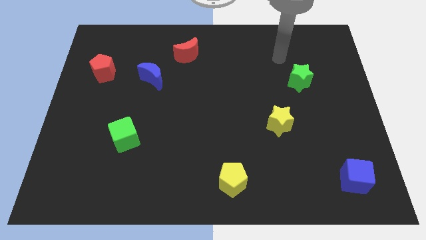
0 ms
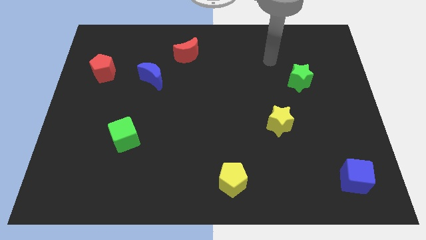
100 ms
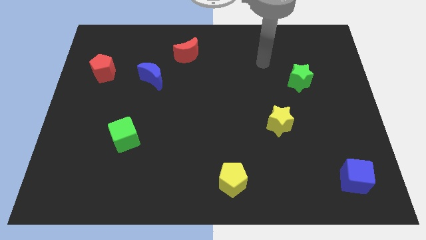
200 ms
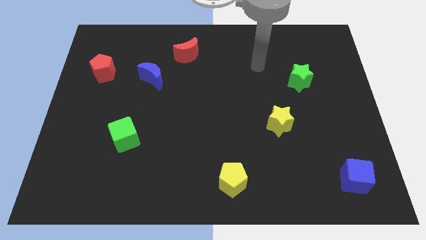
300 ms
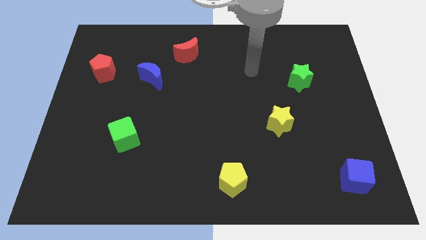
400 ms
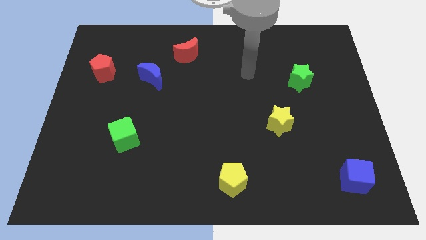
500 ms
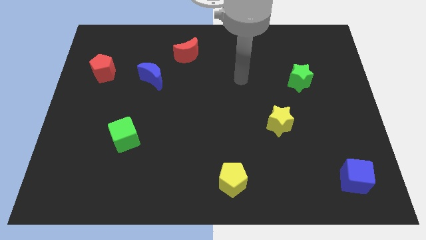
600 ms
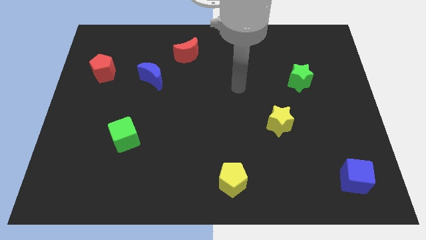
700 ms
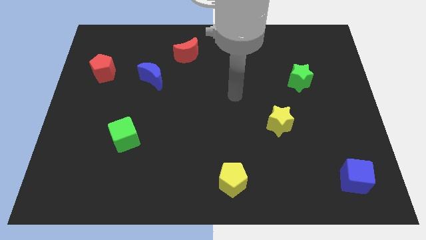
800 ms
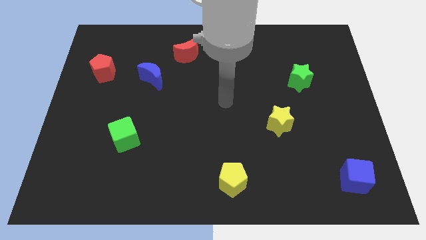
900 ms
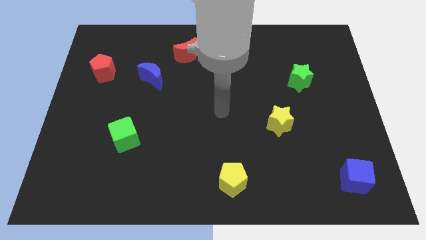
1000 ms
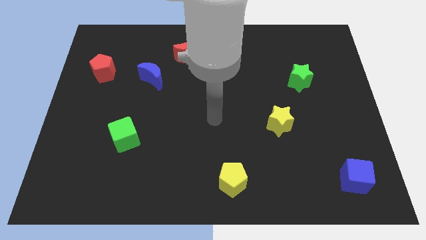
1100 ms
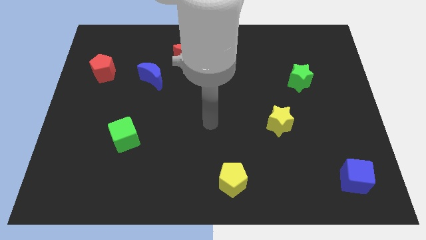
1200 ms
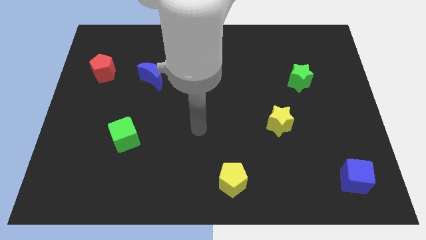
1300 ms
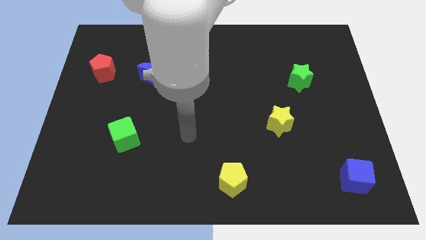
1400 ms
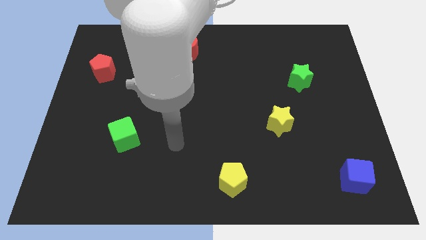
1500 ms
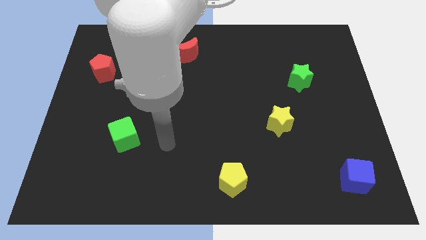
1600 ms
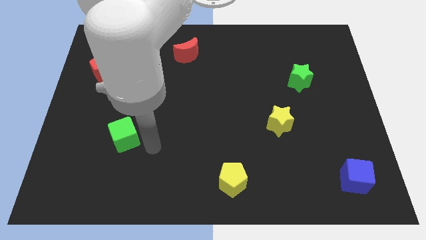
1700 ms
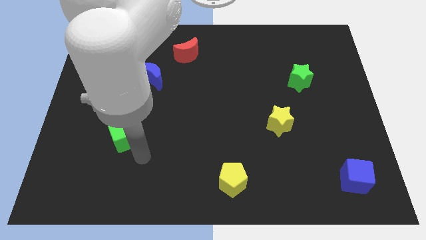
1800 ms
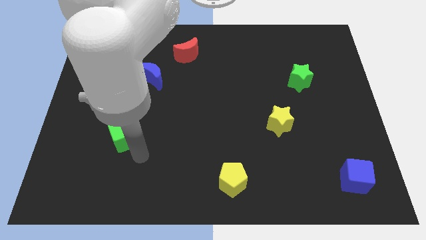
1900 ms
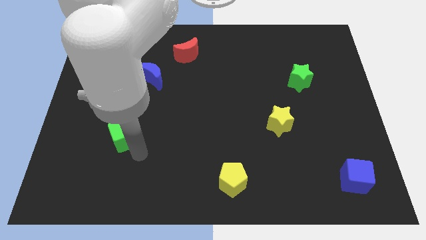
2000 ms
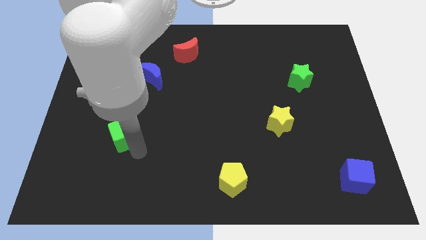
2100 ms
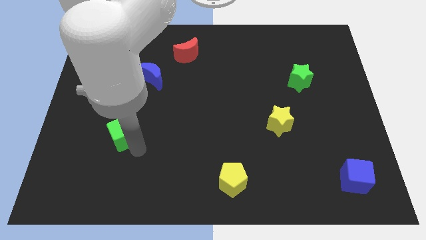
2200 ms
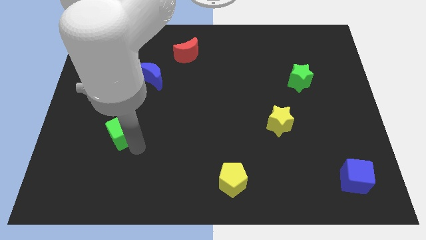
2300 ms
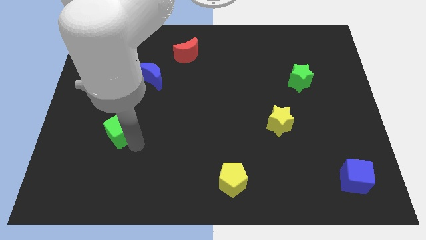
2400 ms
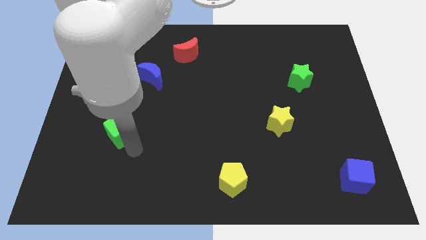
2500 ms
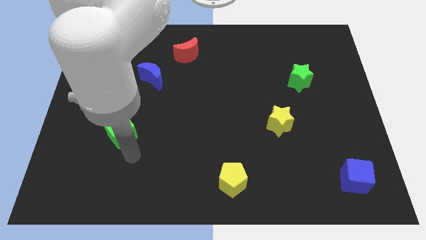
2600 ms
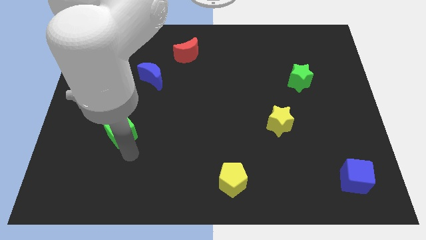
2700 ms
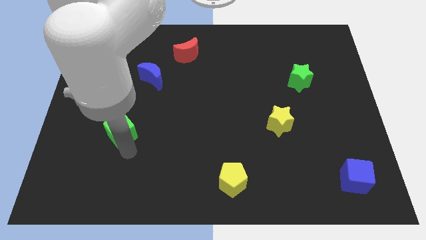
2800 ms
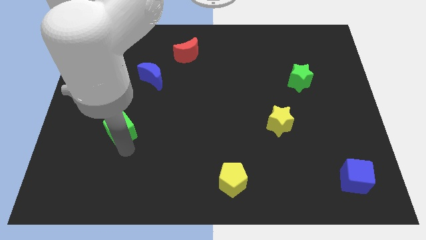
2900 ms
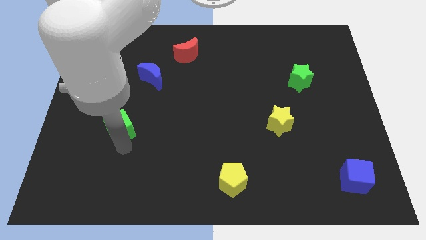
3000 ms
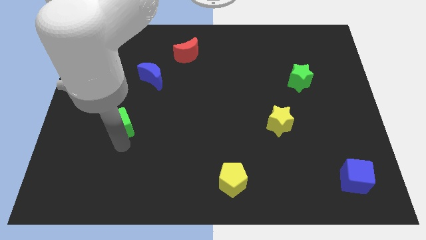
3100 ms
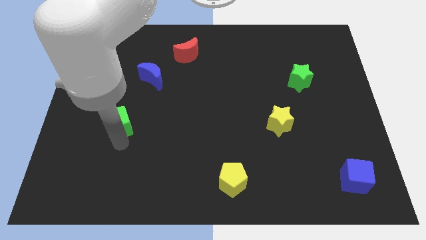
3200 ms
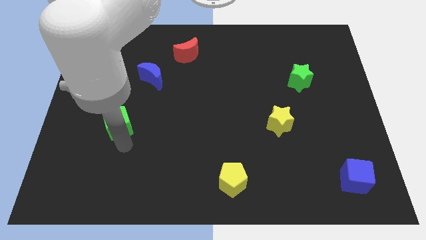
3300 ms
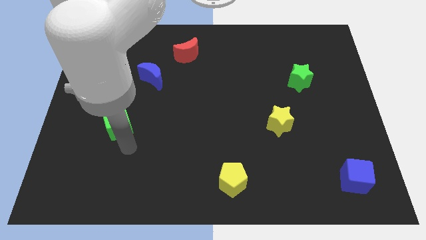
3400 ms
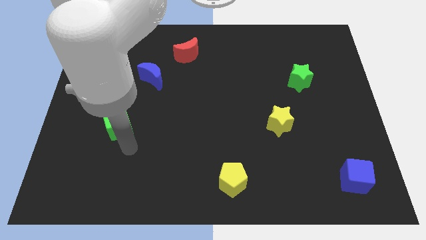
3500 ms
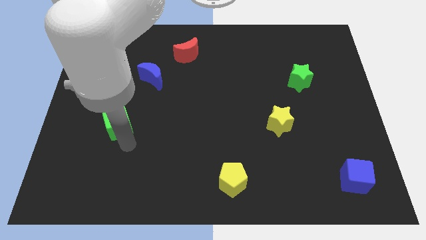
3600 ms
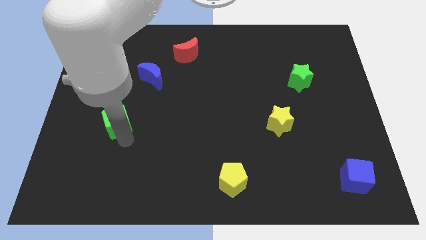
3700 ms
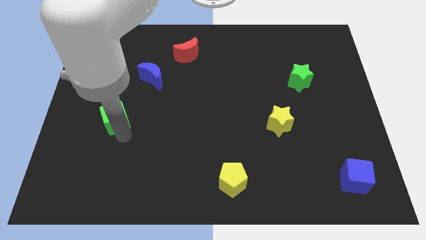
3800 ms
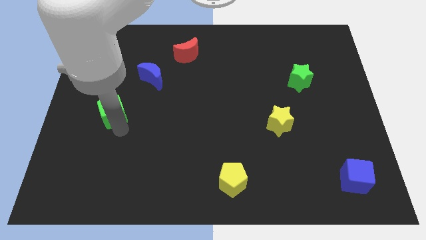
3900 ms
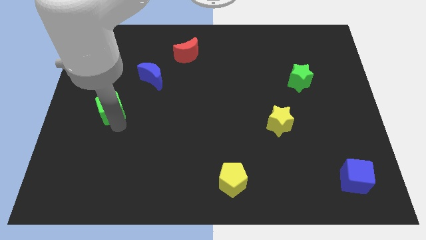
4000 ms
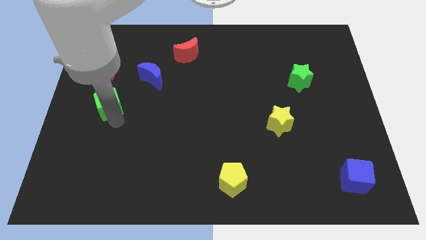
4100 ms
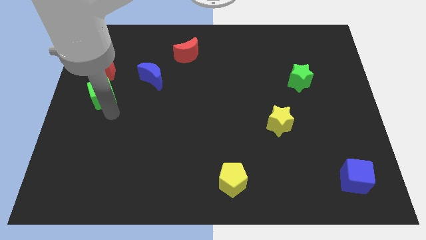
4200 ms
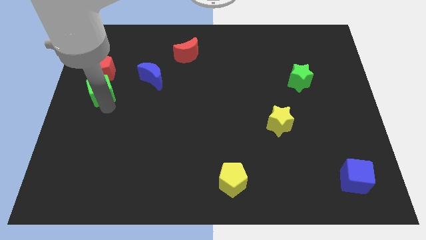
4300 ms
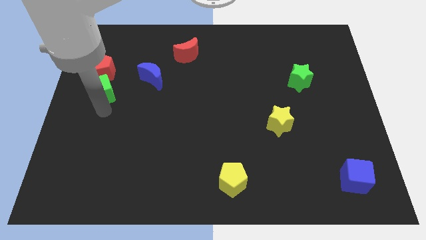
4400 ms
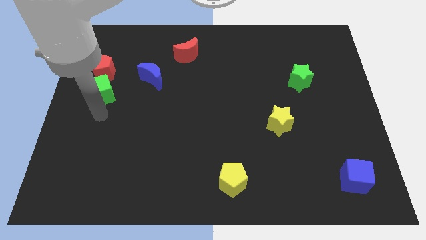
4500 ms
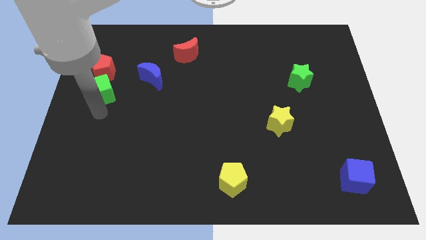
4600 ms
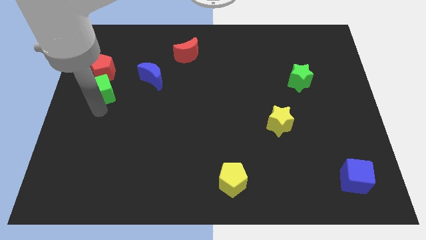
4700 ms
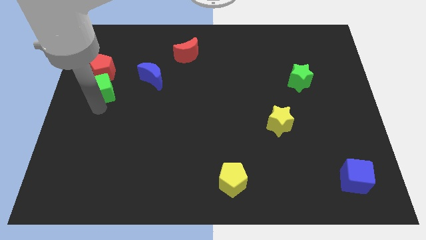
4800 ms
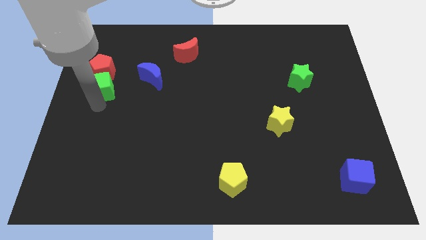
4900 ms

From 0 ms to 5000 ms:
push the green cube next to the red pentagon

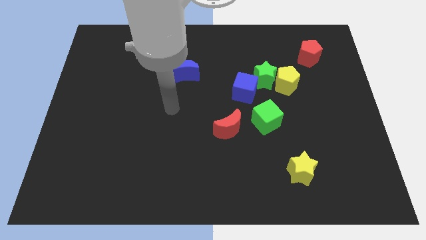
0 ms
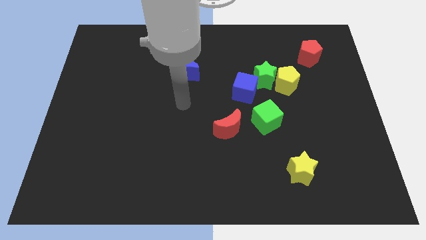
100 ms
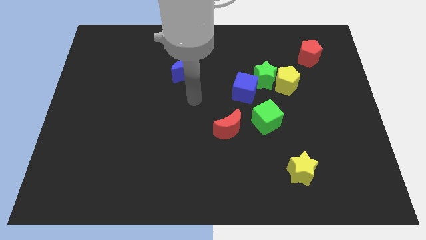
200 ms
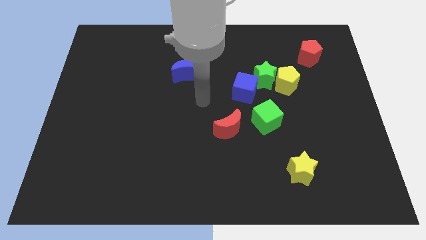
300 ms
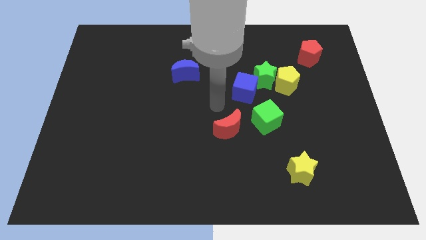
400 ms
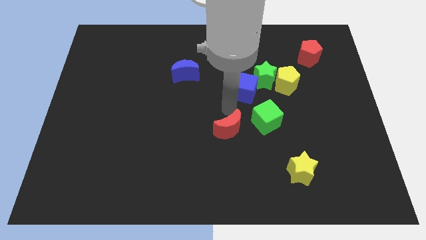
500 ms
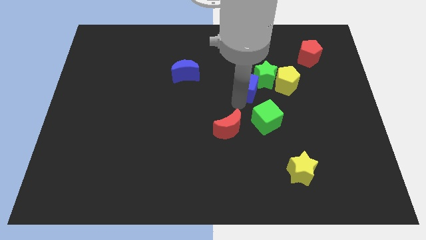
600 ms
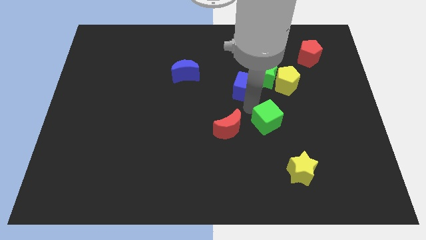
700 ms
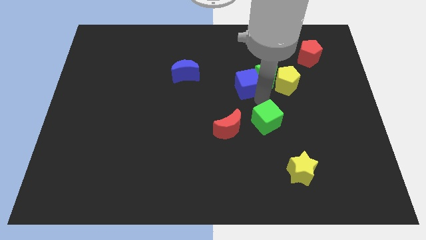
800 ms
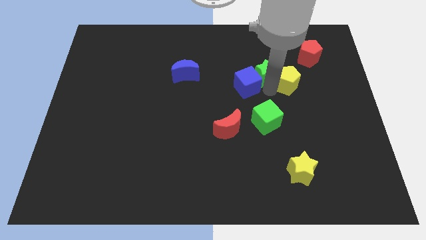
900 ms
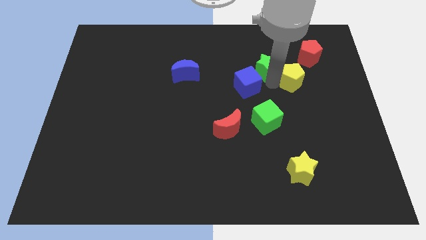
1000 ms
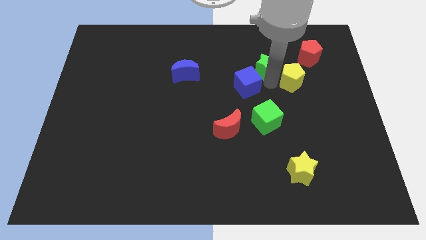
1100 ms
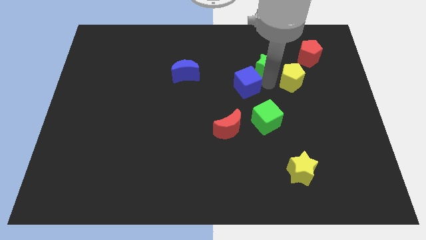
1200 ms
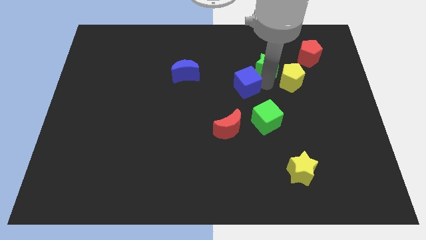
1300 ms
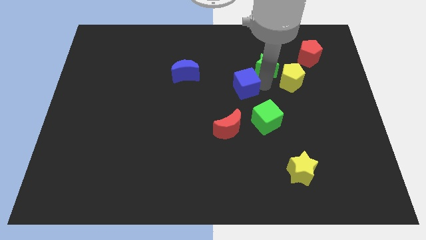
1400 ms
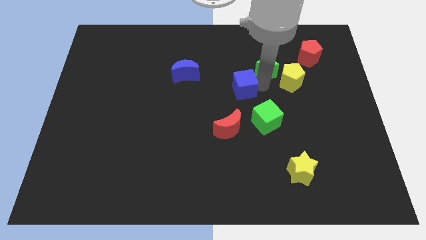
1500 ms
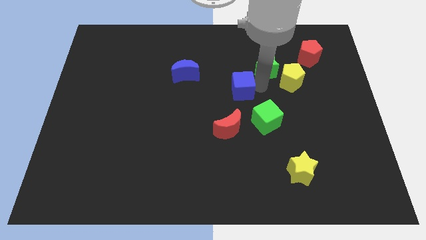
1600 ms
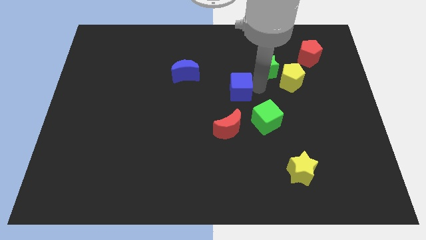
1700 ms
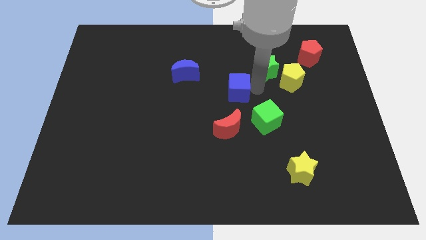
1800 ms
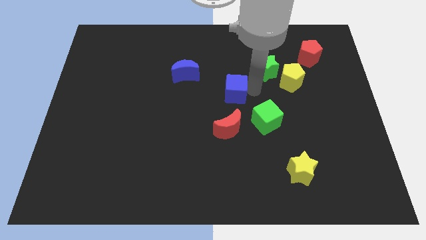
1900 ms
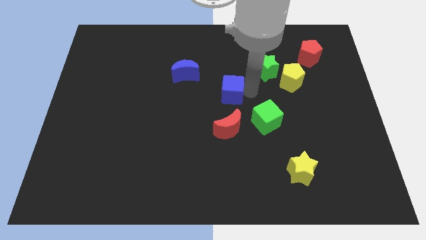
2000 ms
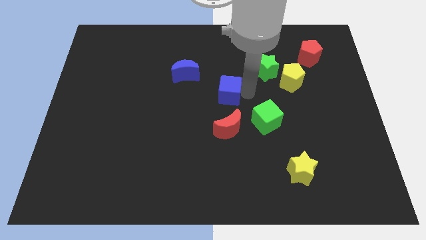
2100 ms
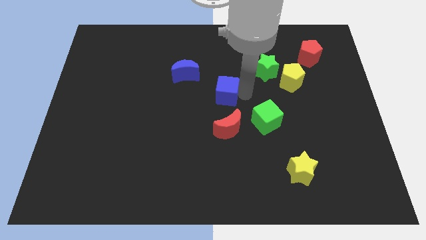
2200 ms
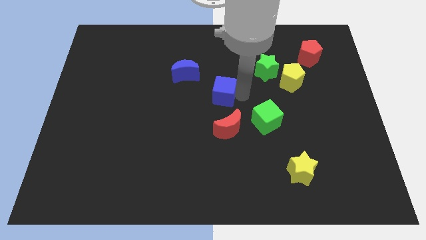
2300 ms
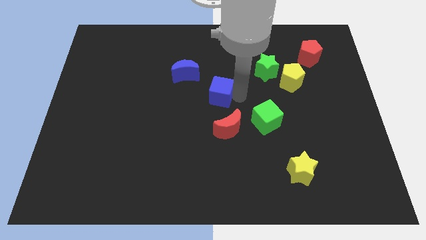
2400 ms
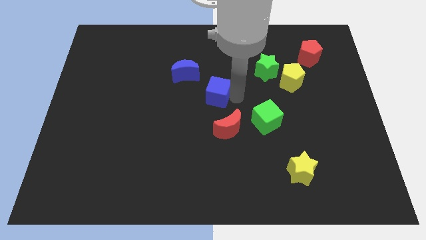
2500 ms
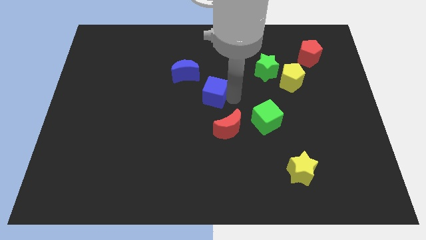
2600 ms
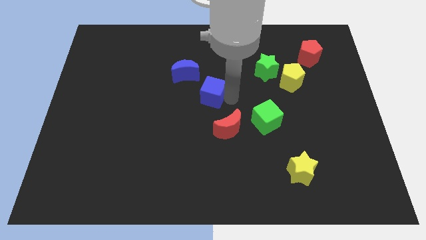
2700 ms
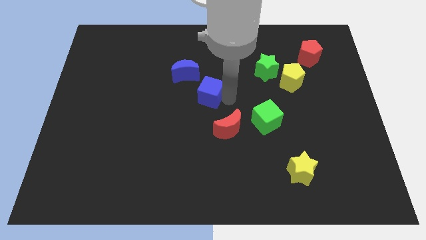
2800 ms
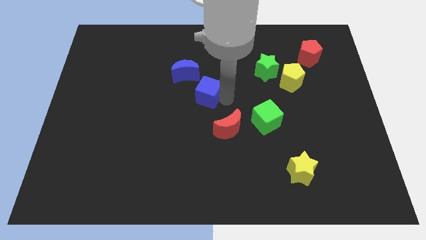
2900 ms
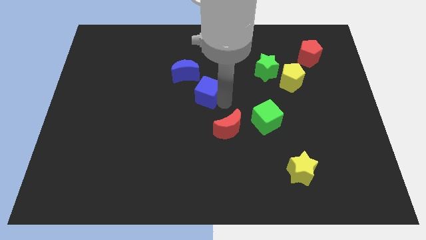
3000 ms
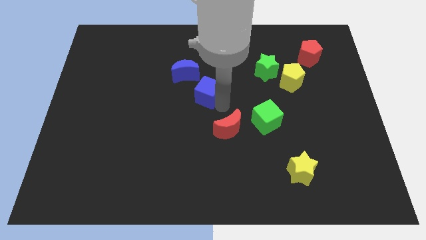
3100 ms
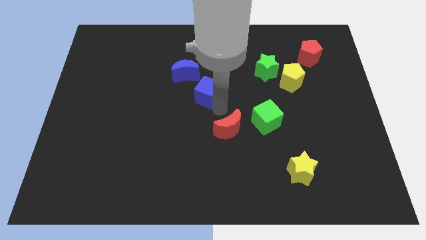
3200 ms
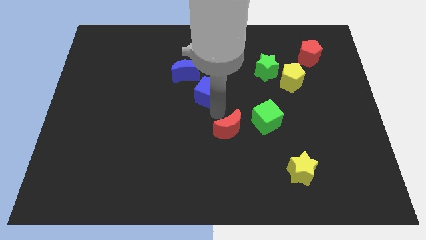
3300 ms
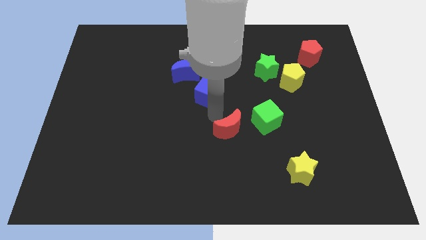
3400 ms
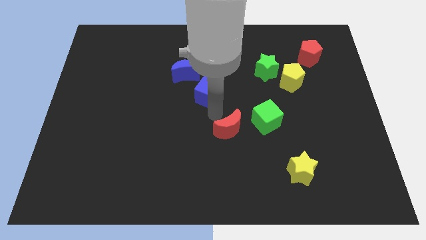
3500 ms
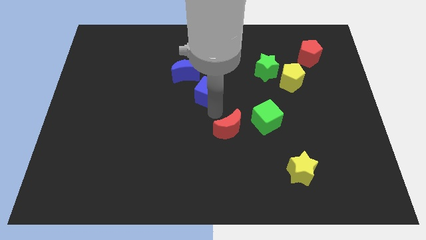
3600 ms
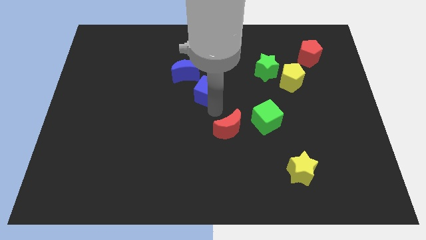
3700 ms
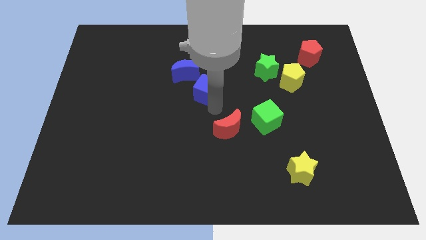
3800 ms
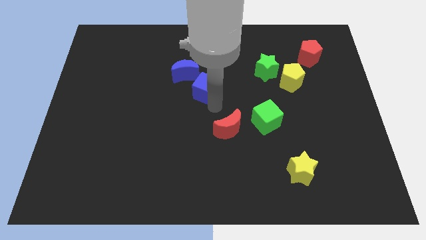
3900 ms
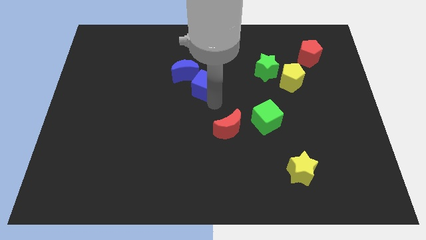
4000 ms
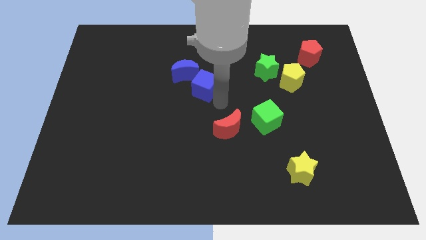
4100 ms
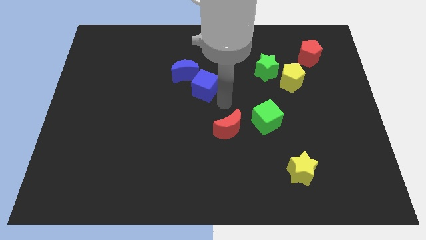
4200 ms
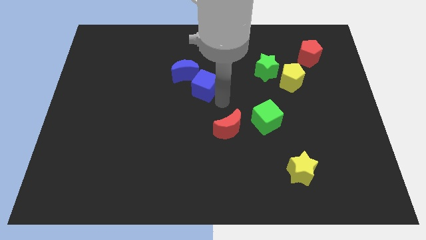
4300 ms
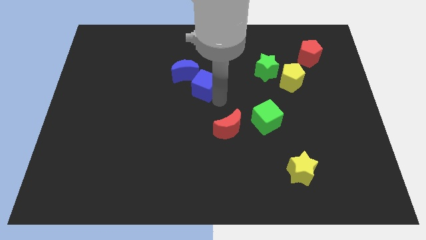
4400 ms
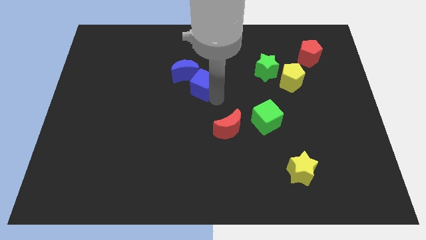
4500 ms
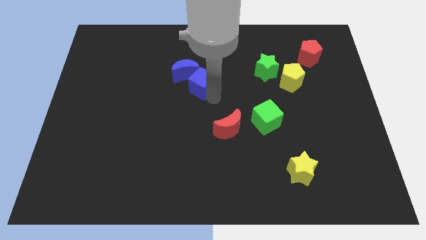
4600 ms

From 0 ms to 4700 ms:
push the blue cube close to the blue moon
